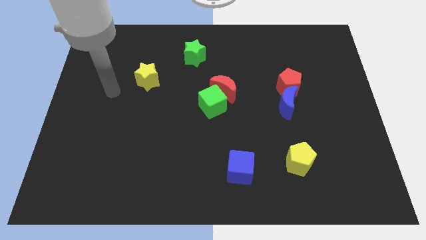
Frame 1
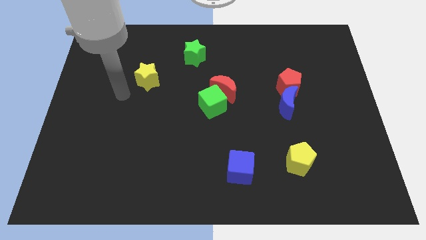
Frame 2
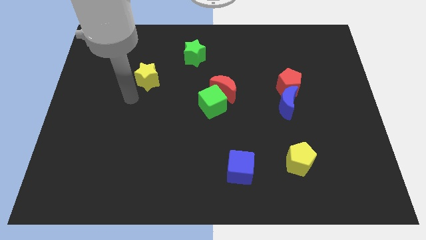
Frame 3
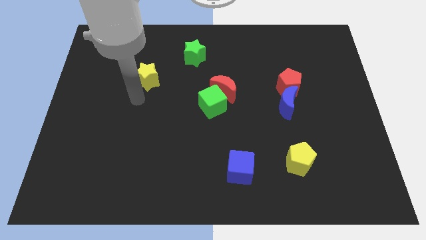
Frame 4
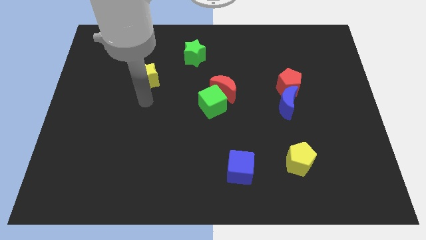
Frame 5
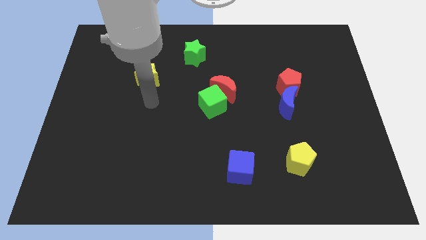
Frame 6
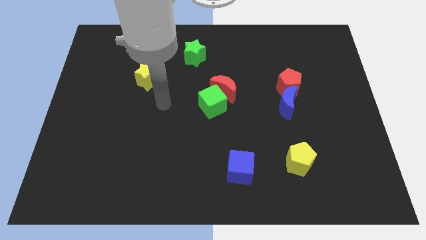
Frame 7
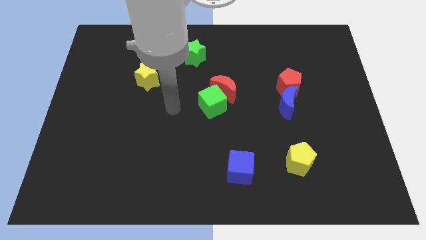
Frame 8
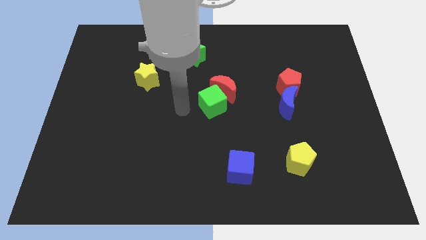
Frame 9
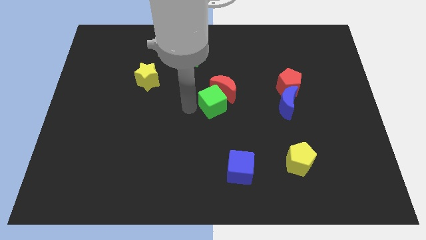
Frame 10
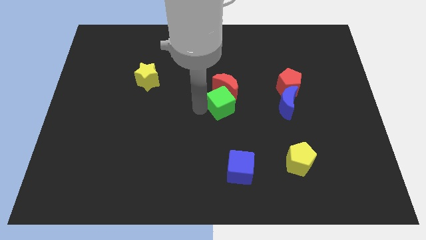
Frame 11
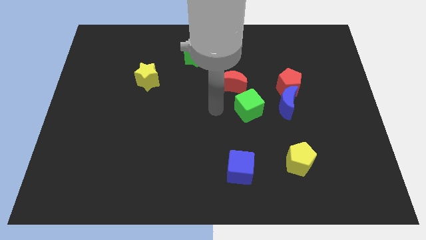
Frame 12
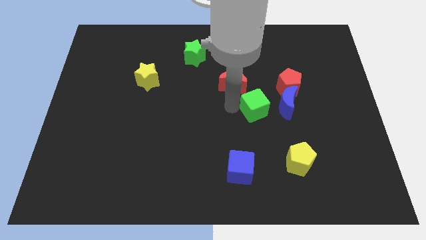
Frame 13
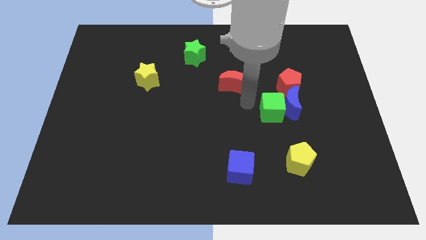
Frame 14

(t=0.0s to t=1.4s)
move the red moon away from the green cube

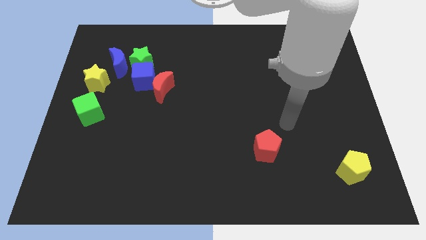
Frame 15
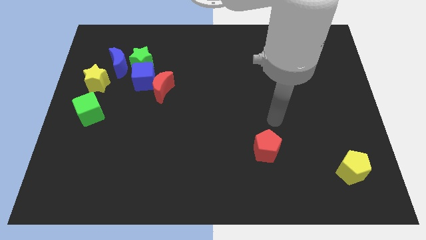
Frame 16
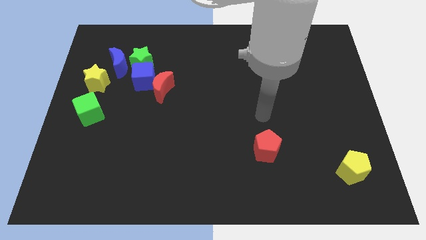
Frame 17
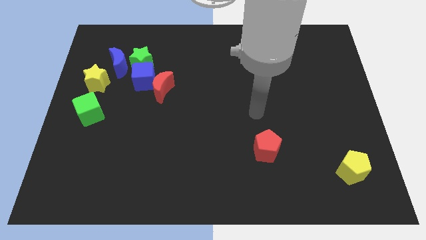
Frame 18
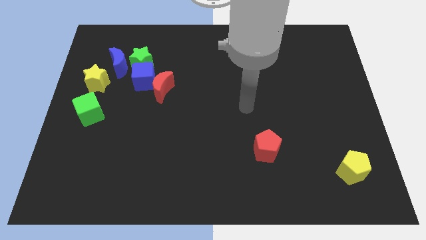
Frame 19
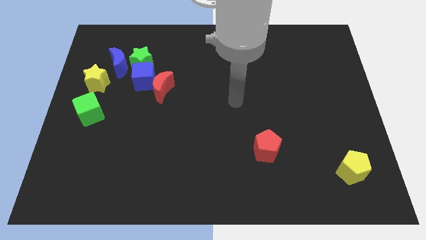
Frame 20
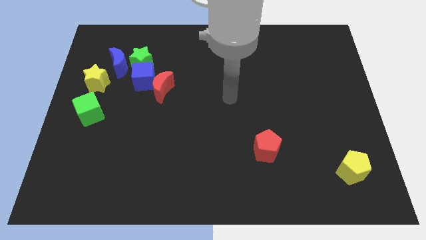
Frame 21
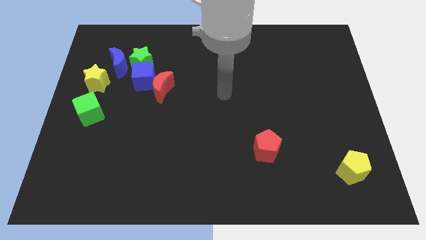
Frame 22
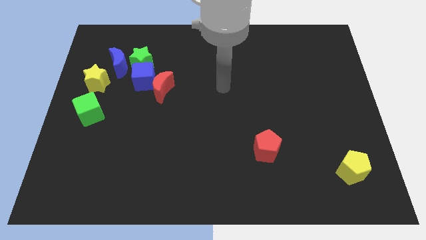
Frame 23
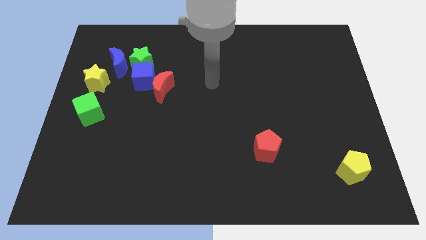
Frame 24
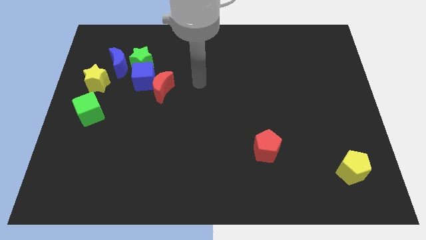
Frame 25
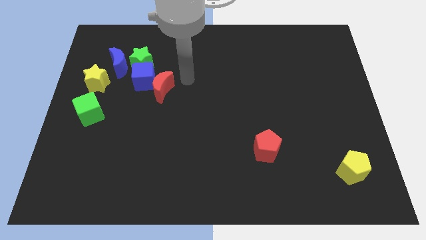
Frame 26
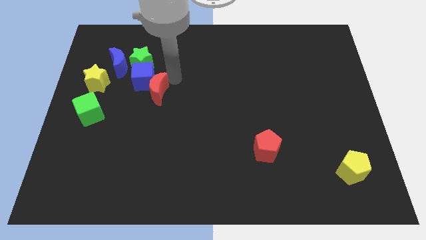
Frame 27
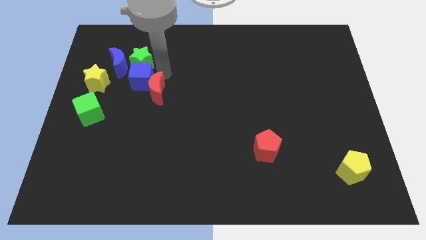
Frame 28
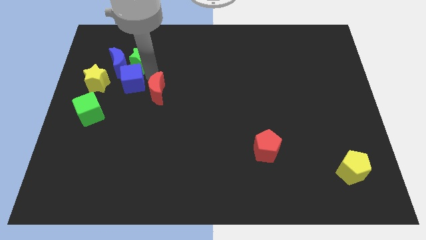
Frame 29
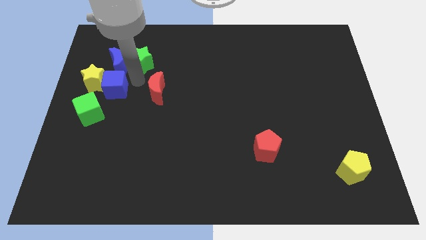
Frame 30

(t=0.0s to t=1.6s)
move the red moon away from the blue cube

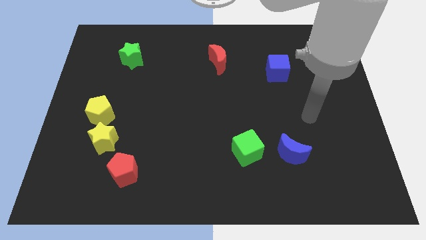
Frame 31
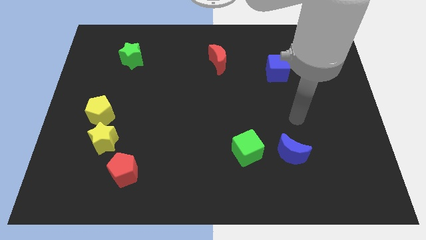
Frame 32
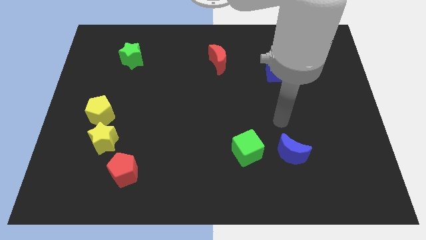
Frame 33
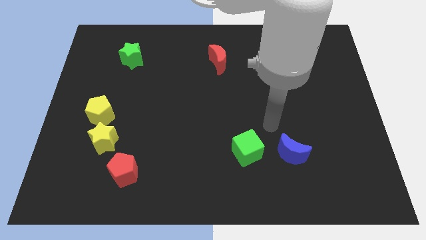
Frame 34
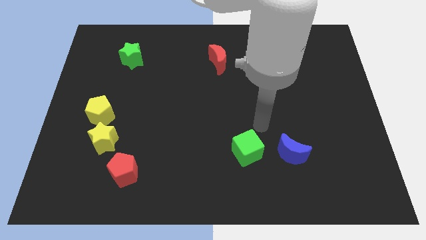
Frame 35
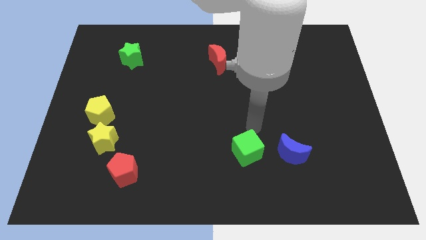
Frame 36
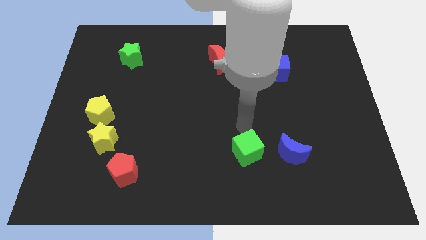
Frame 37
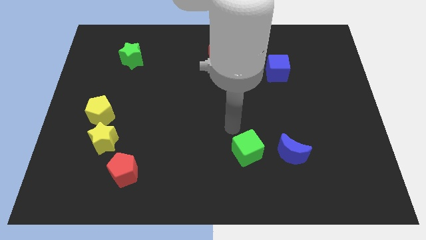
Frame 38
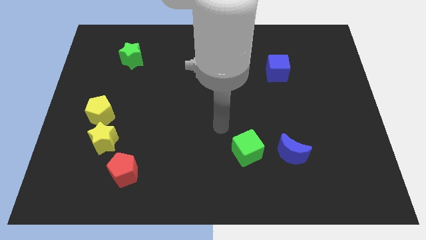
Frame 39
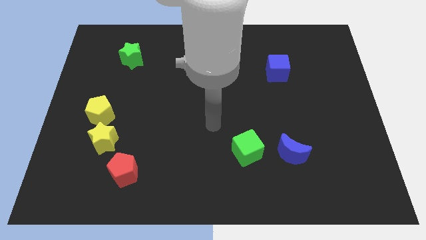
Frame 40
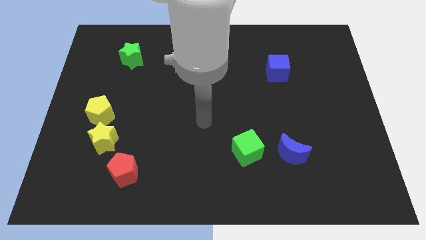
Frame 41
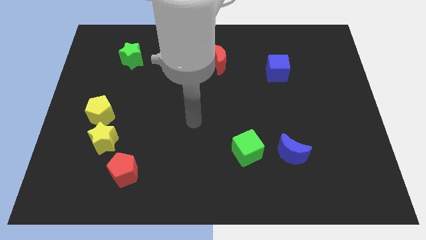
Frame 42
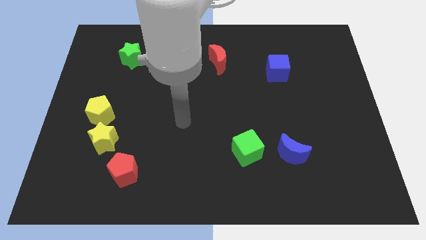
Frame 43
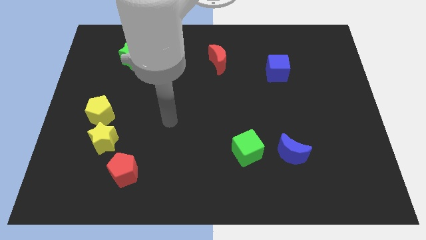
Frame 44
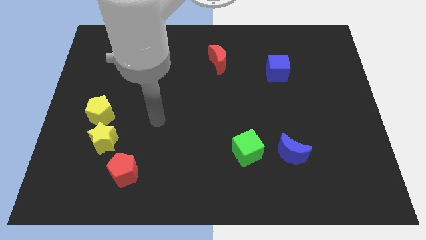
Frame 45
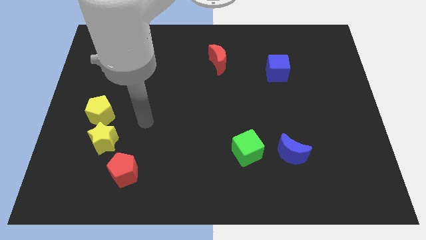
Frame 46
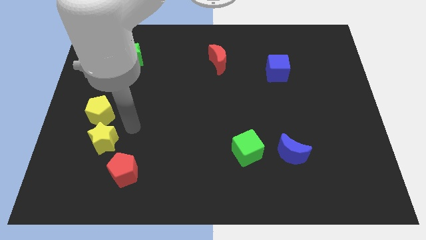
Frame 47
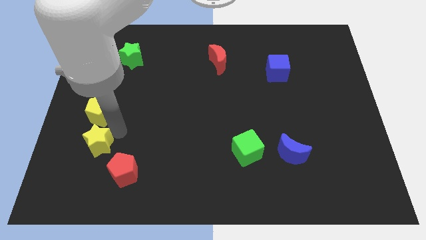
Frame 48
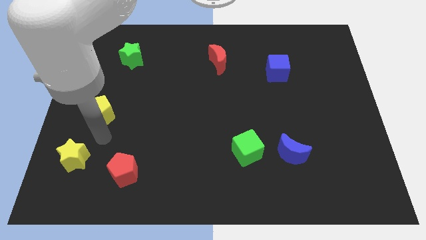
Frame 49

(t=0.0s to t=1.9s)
separate the yellow pentagon from the yellow star

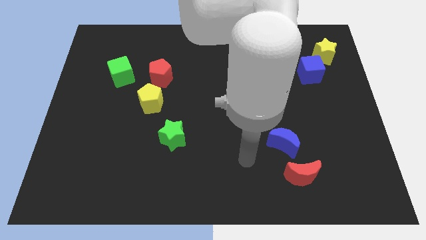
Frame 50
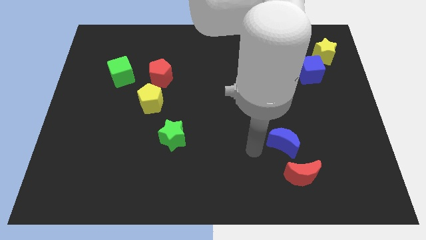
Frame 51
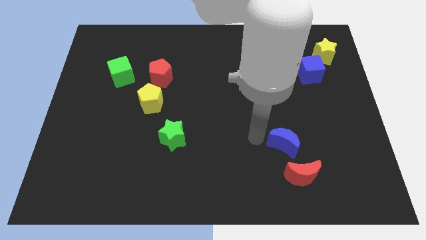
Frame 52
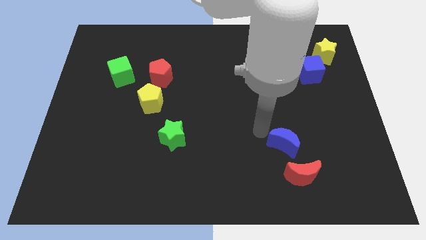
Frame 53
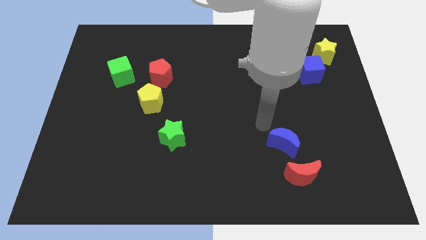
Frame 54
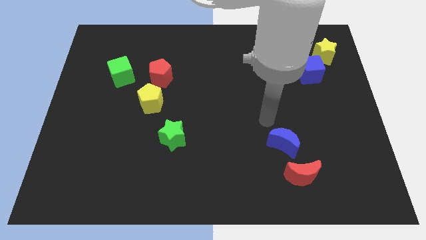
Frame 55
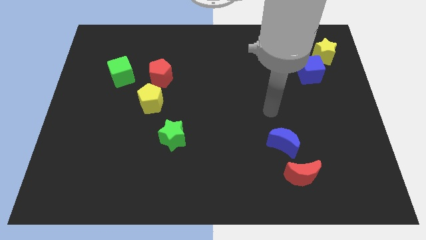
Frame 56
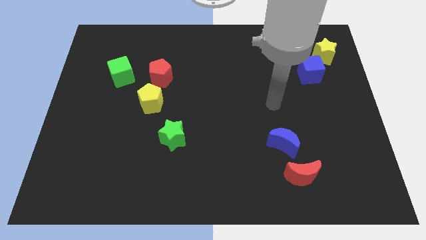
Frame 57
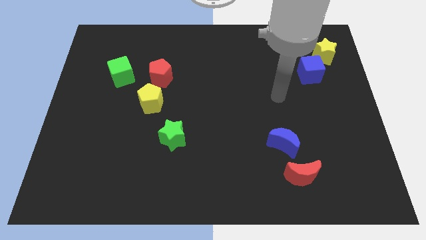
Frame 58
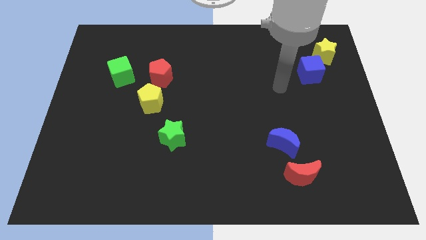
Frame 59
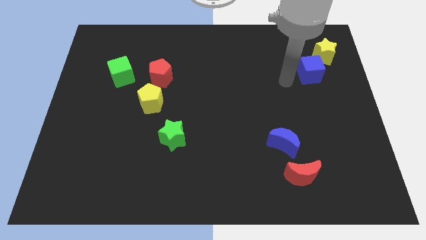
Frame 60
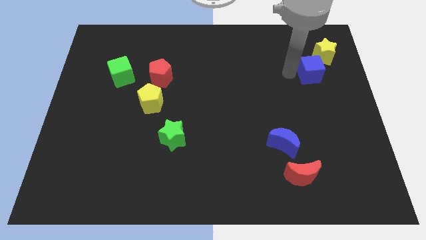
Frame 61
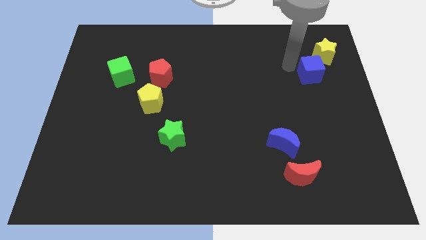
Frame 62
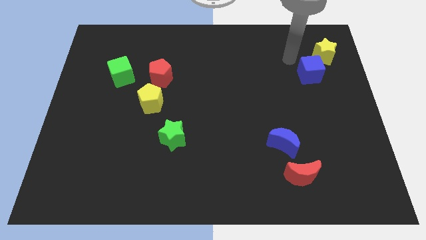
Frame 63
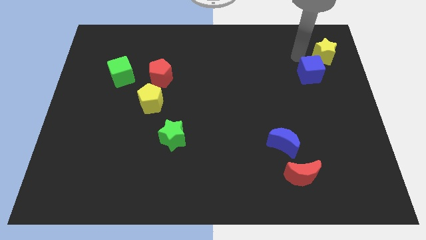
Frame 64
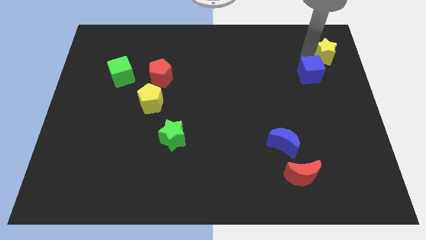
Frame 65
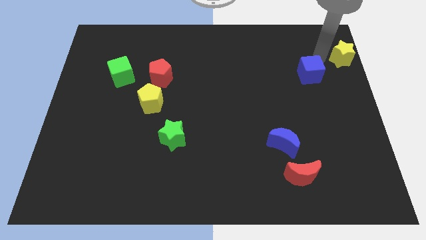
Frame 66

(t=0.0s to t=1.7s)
move the blue cube away from the yellow star

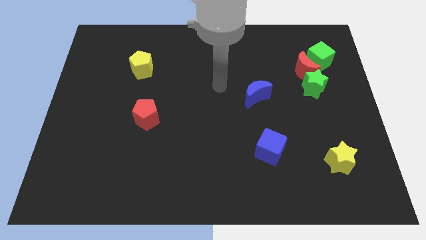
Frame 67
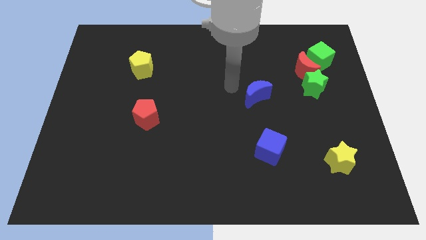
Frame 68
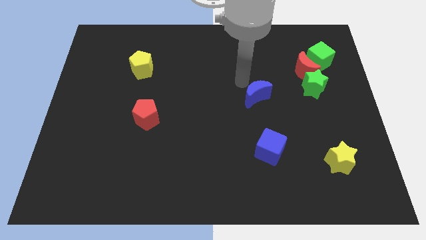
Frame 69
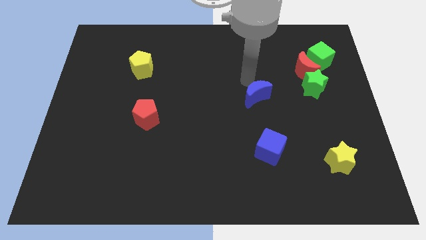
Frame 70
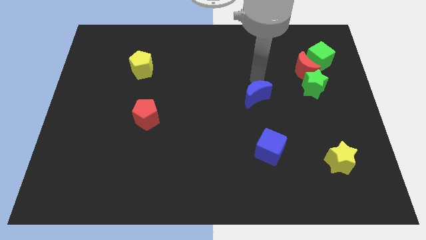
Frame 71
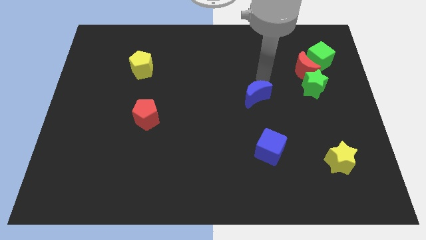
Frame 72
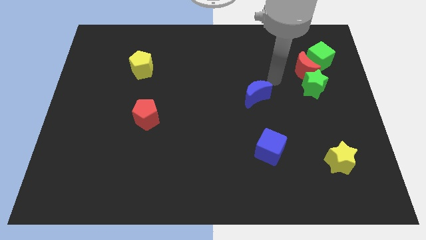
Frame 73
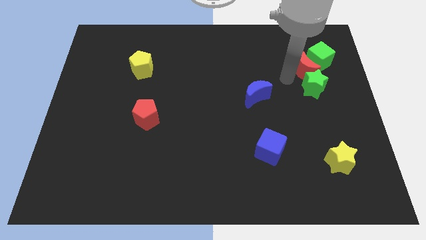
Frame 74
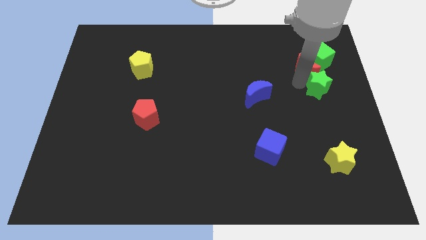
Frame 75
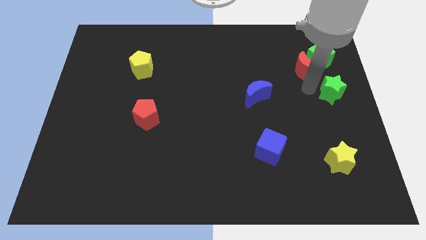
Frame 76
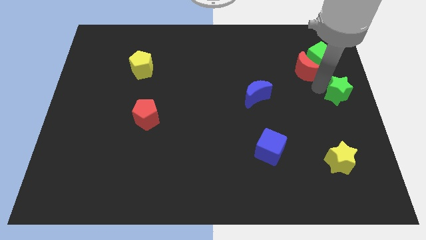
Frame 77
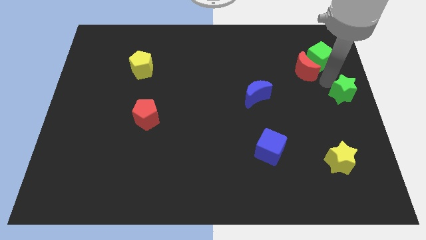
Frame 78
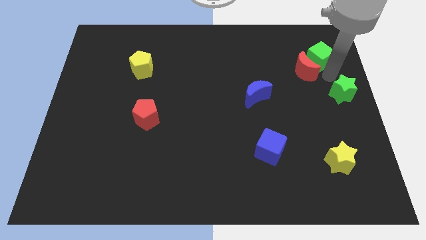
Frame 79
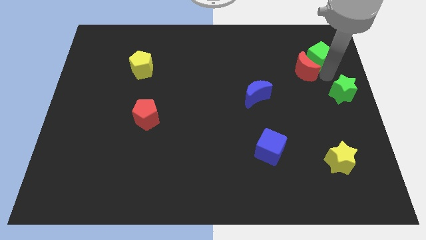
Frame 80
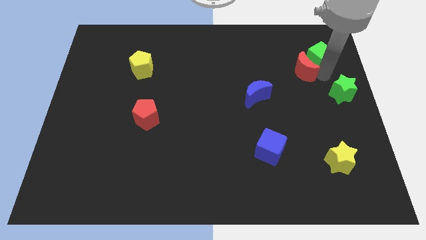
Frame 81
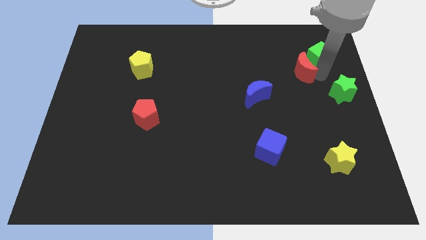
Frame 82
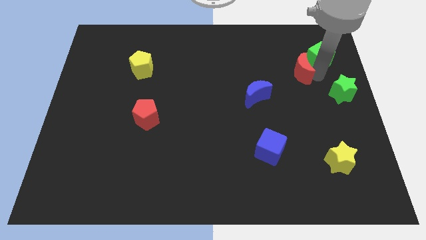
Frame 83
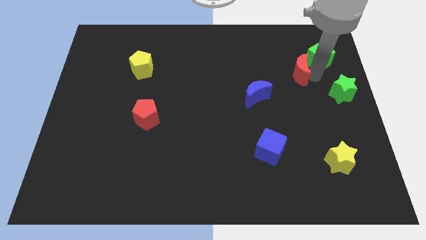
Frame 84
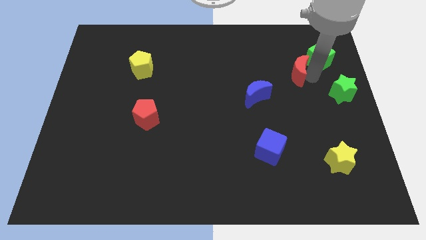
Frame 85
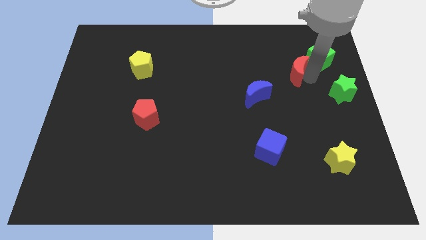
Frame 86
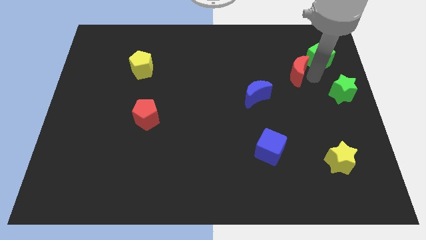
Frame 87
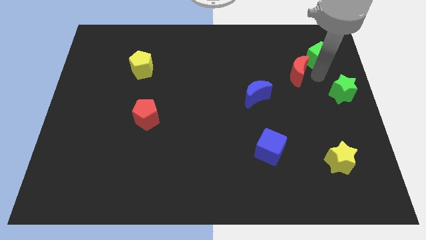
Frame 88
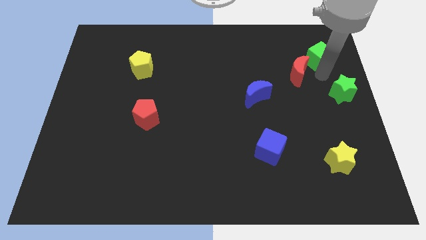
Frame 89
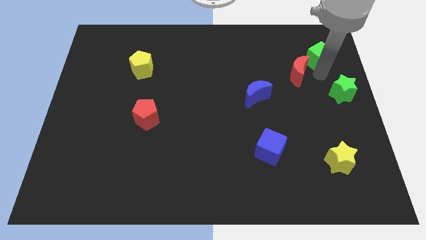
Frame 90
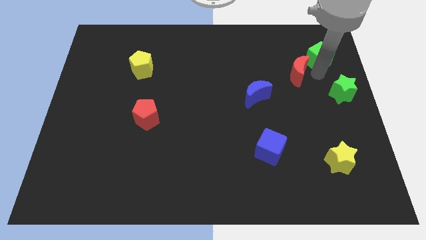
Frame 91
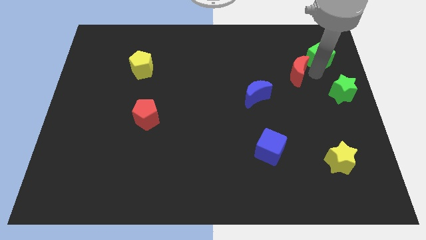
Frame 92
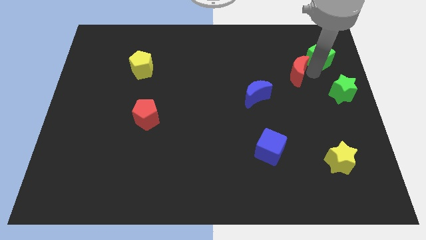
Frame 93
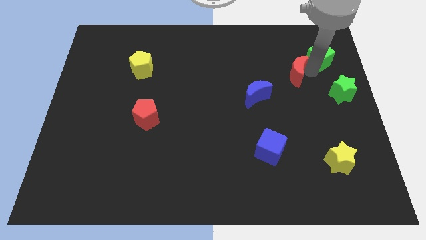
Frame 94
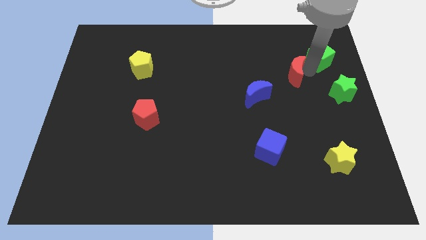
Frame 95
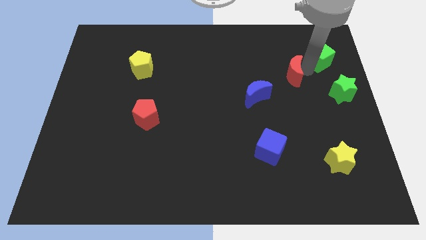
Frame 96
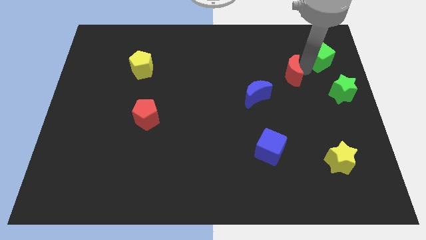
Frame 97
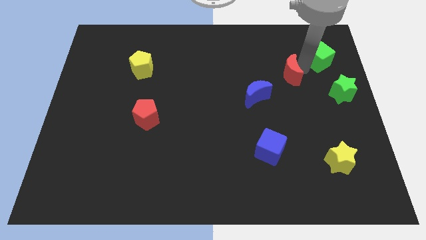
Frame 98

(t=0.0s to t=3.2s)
separate the red moon from the green star and green cube
